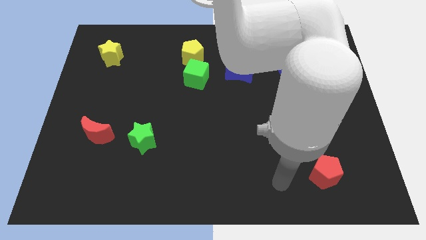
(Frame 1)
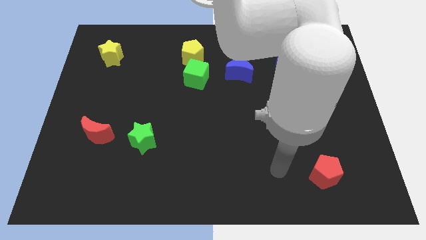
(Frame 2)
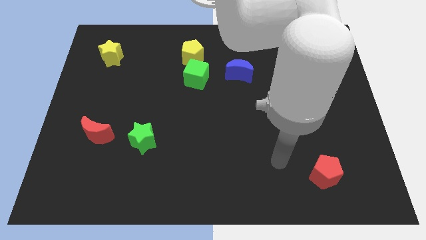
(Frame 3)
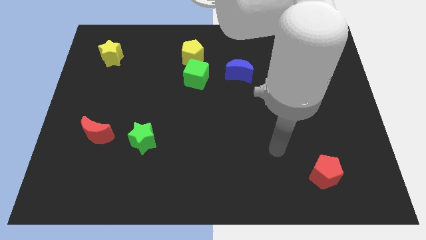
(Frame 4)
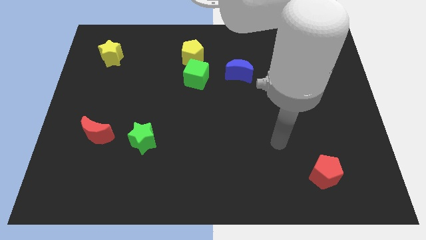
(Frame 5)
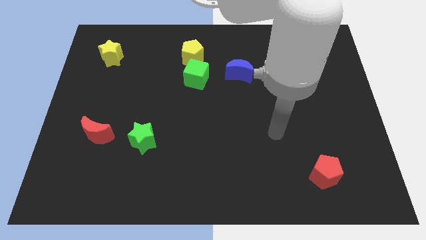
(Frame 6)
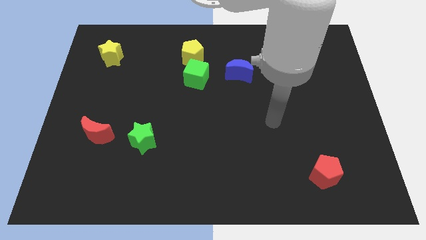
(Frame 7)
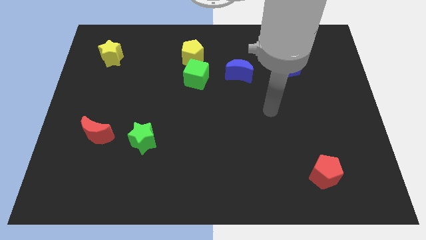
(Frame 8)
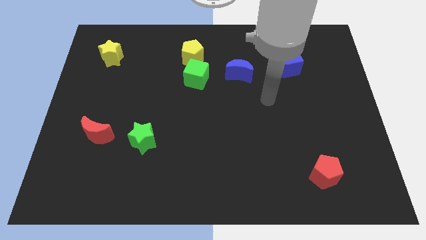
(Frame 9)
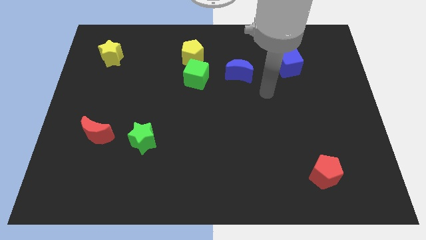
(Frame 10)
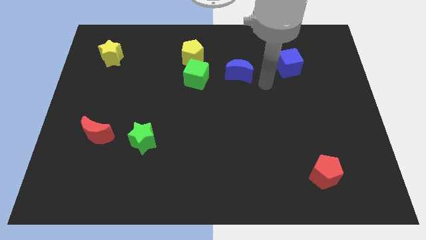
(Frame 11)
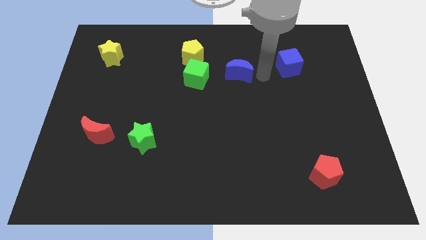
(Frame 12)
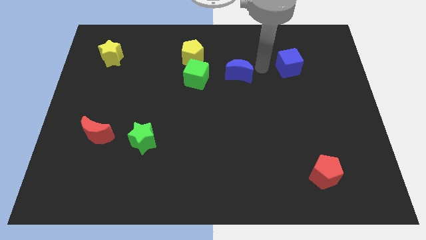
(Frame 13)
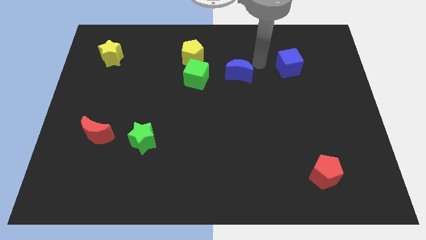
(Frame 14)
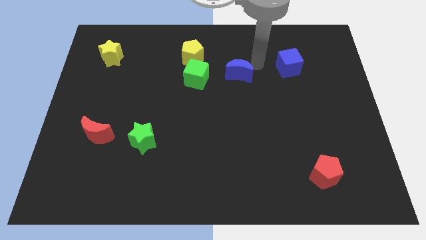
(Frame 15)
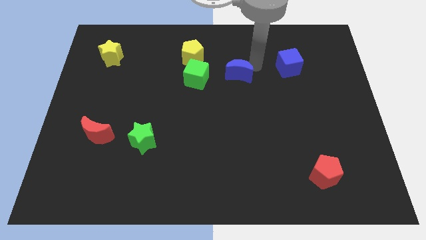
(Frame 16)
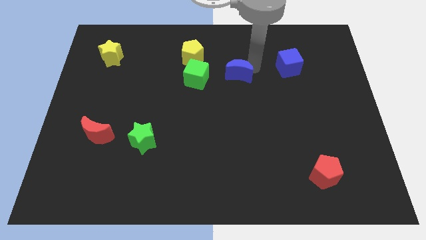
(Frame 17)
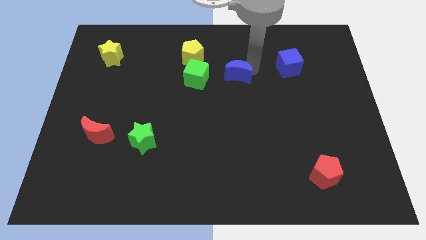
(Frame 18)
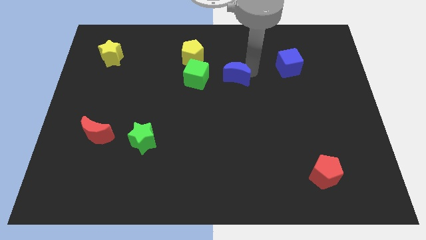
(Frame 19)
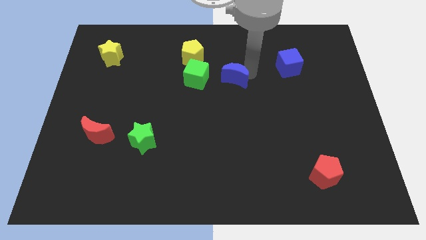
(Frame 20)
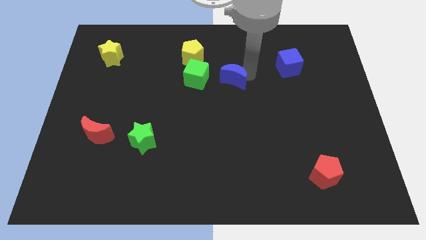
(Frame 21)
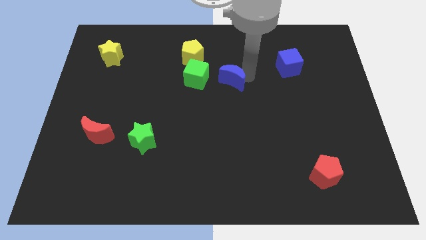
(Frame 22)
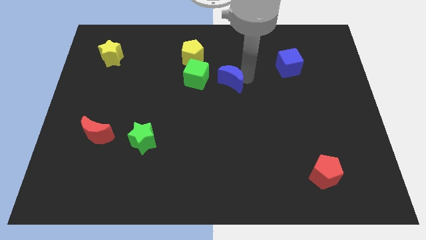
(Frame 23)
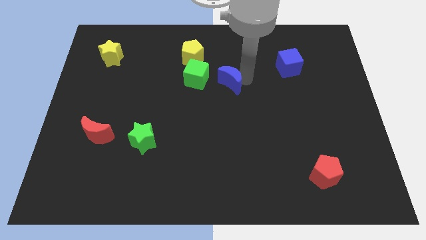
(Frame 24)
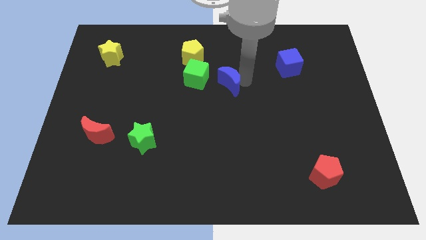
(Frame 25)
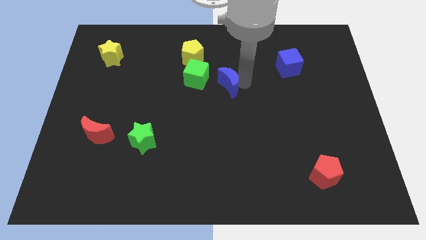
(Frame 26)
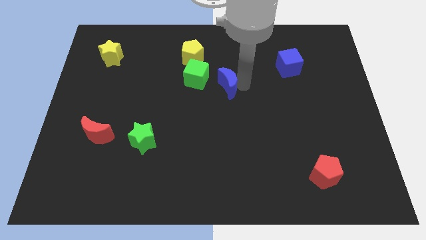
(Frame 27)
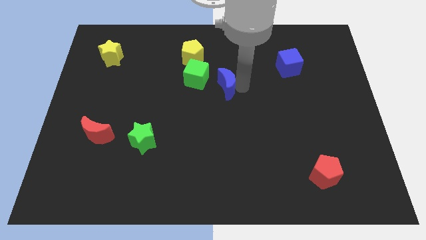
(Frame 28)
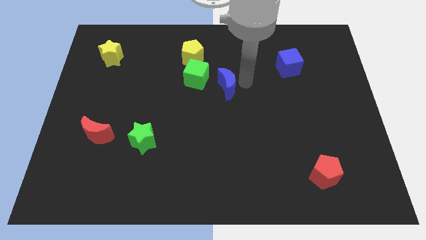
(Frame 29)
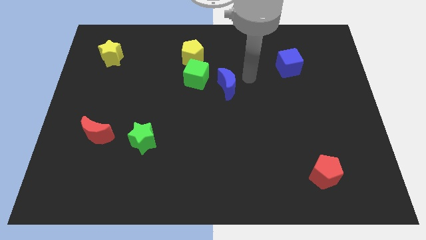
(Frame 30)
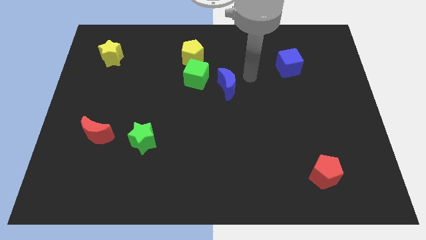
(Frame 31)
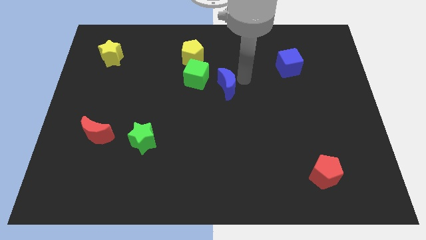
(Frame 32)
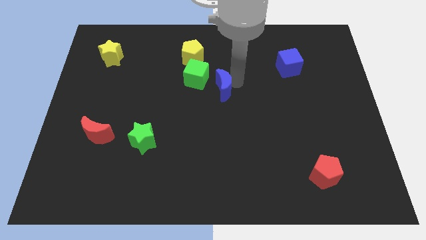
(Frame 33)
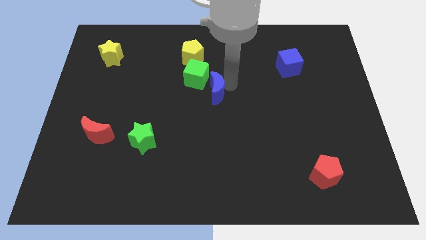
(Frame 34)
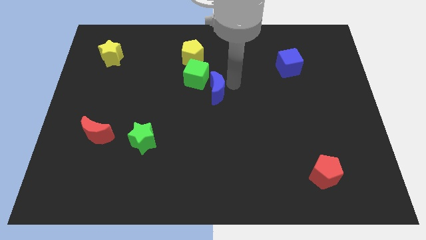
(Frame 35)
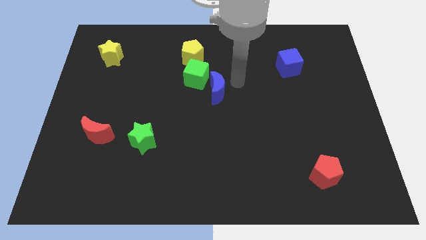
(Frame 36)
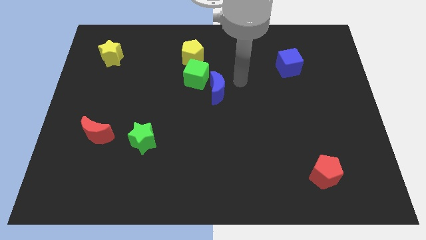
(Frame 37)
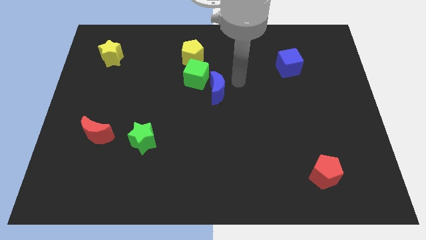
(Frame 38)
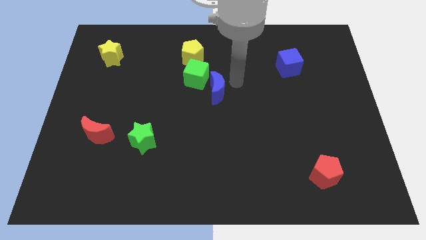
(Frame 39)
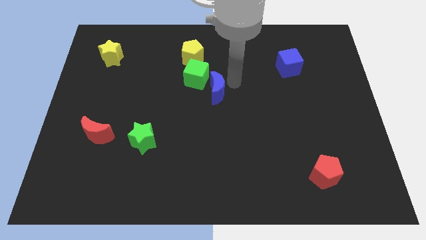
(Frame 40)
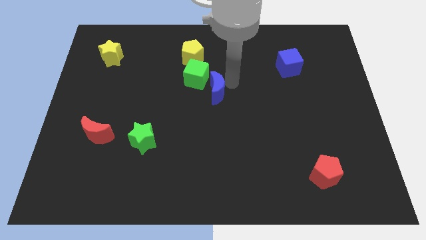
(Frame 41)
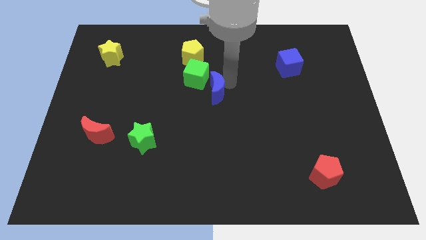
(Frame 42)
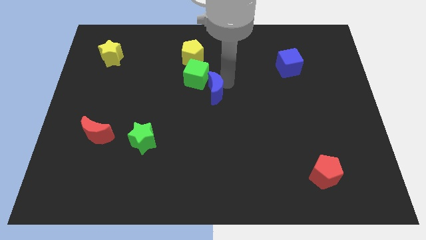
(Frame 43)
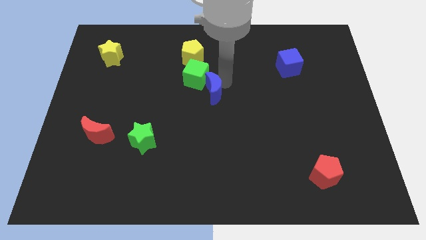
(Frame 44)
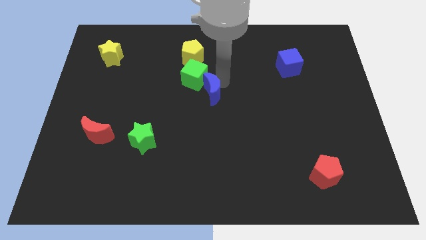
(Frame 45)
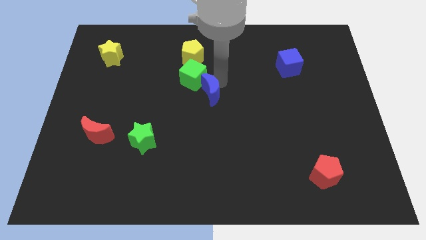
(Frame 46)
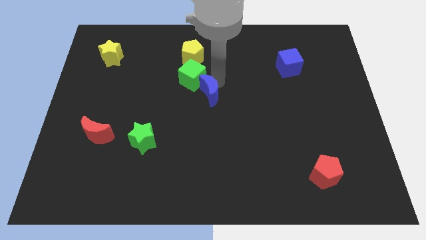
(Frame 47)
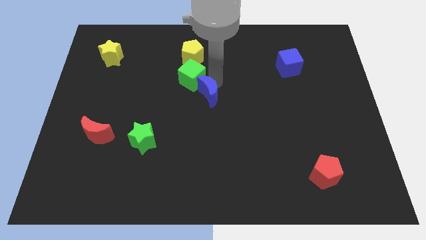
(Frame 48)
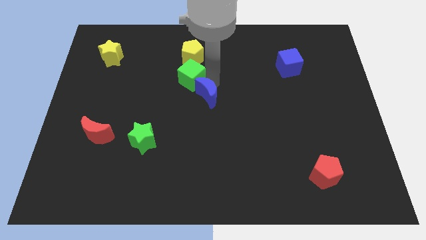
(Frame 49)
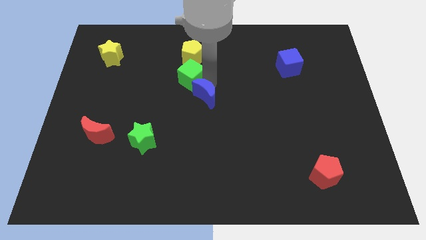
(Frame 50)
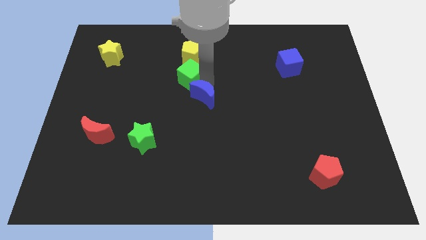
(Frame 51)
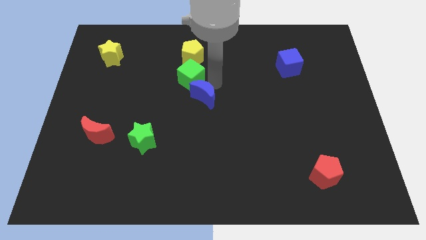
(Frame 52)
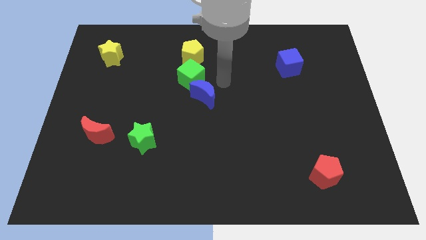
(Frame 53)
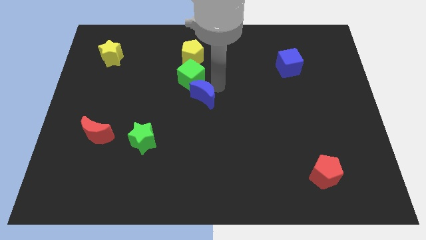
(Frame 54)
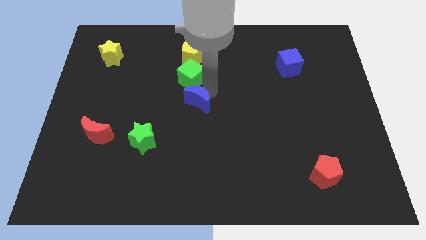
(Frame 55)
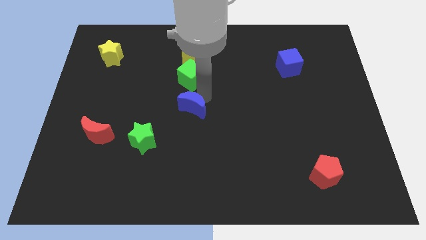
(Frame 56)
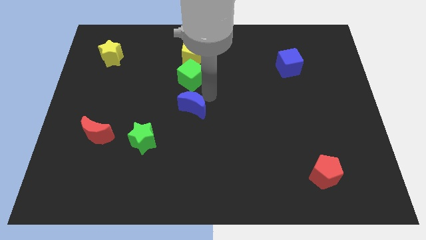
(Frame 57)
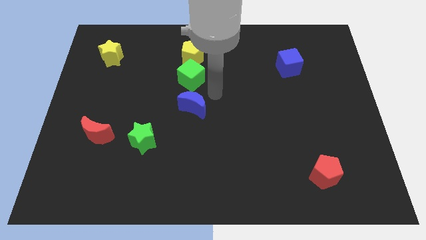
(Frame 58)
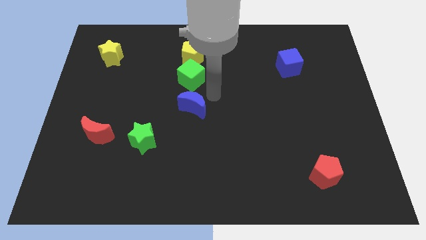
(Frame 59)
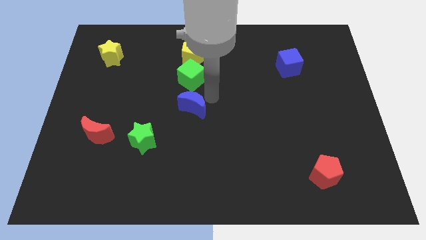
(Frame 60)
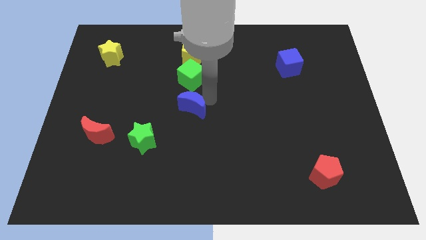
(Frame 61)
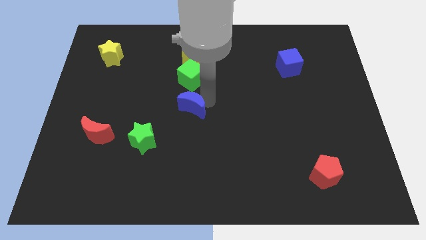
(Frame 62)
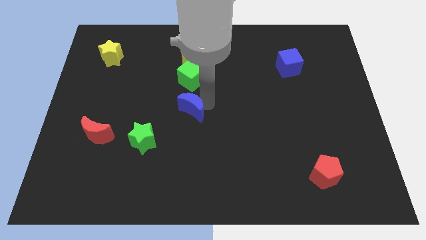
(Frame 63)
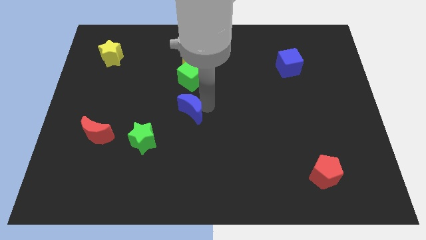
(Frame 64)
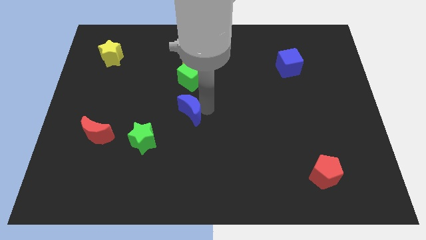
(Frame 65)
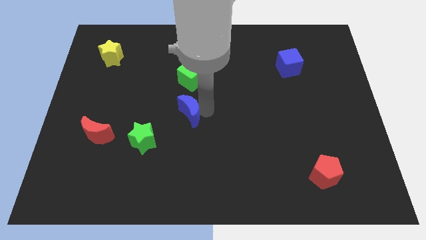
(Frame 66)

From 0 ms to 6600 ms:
move the blue moon to the top right of the green star
